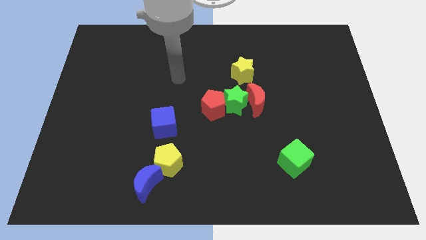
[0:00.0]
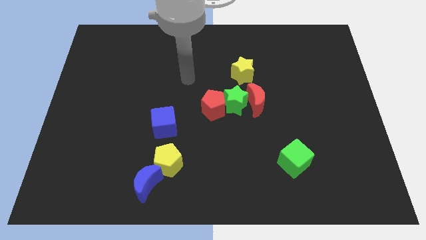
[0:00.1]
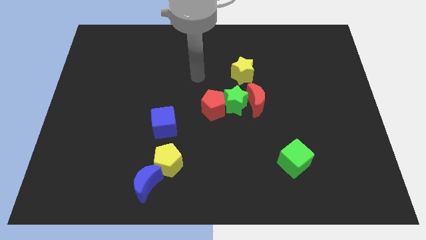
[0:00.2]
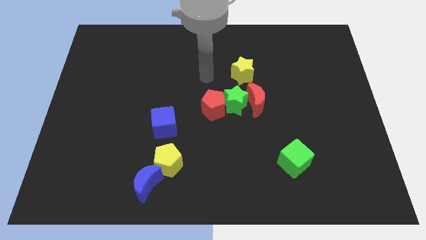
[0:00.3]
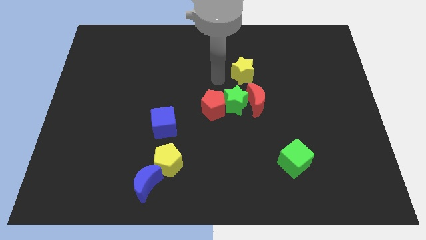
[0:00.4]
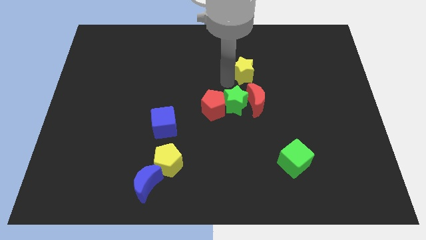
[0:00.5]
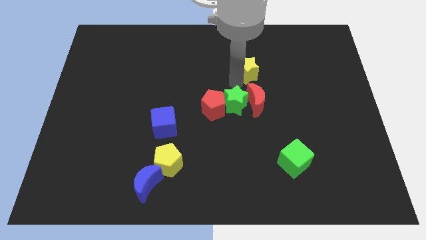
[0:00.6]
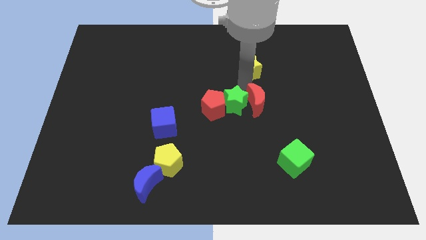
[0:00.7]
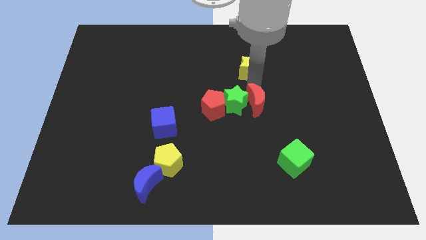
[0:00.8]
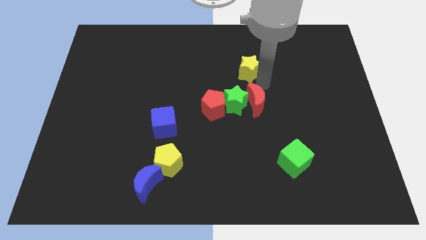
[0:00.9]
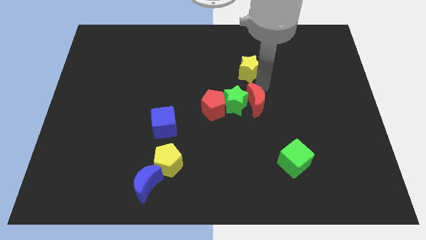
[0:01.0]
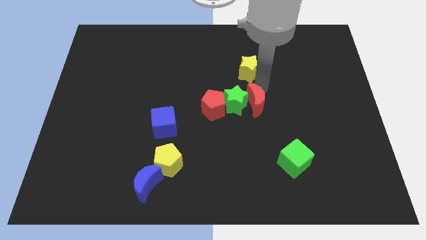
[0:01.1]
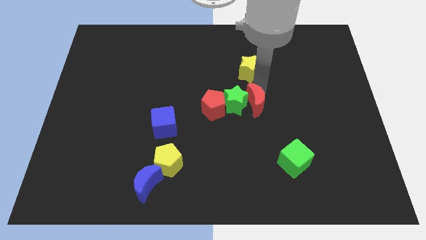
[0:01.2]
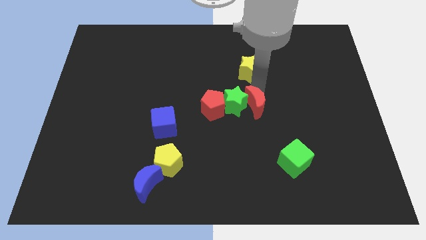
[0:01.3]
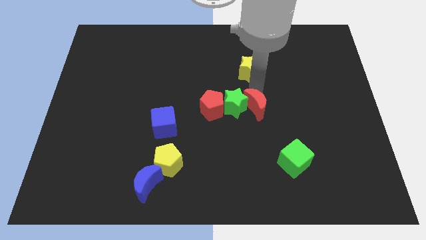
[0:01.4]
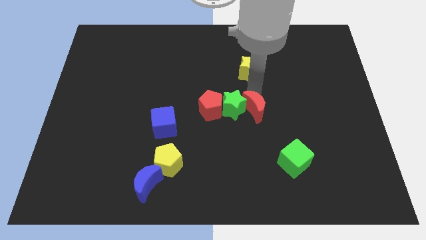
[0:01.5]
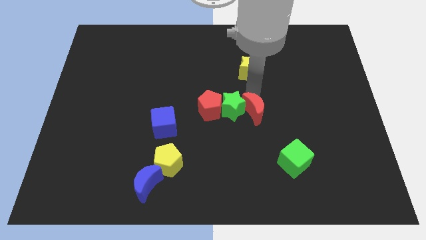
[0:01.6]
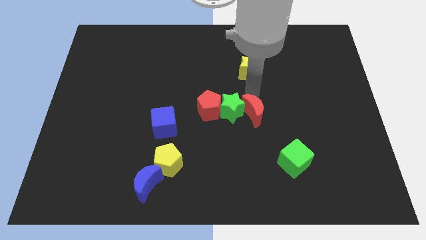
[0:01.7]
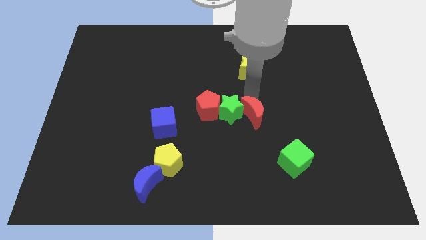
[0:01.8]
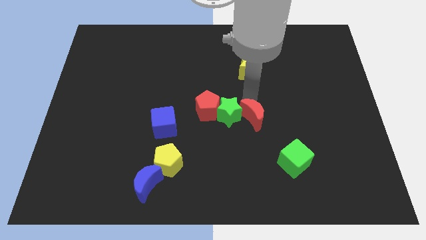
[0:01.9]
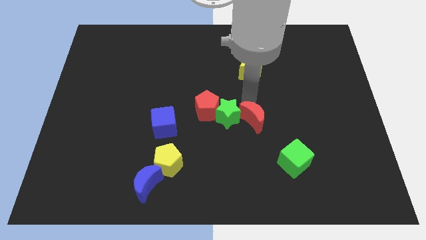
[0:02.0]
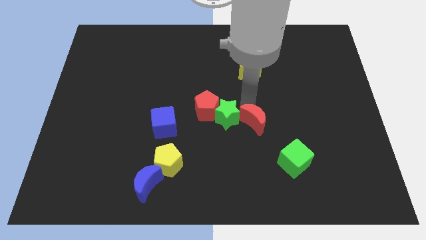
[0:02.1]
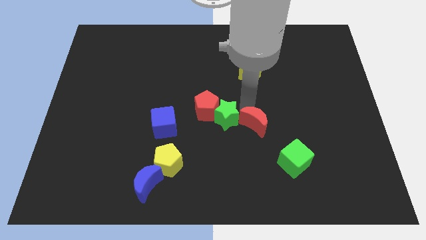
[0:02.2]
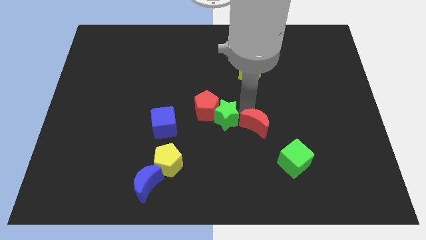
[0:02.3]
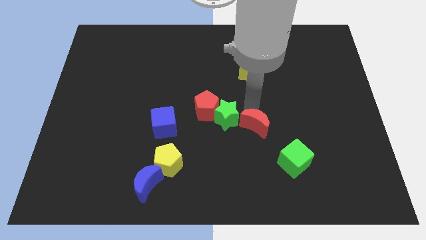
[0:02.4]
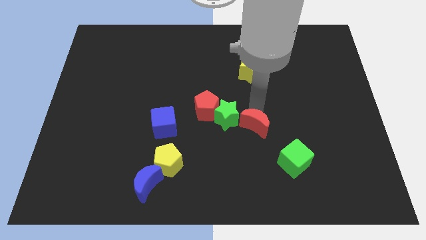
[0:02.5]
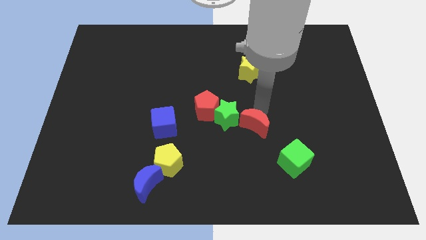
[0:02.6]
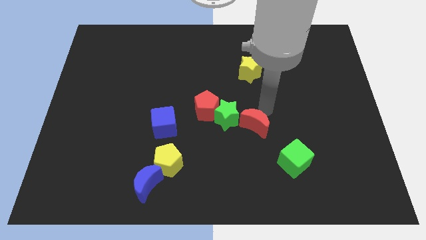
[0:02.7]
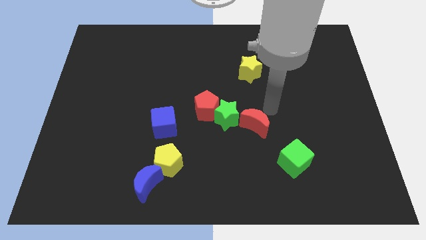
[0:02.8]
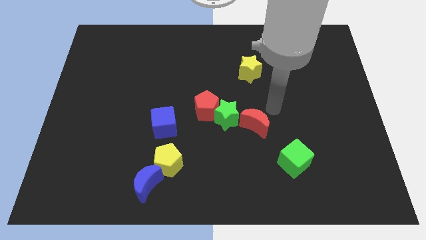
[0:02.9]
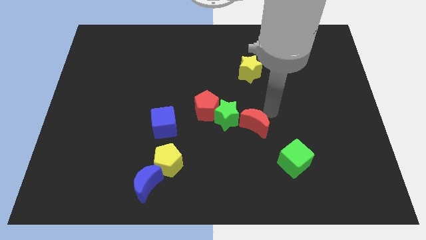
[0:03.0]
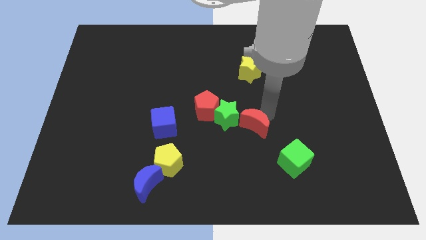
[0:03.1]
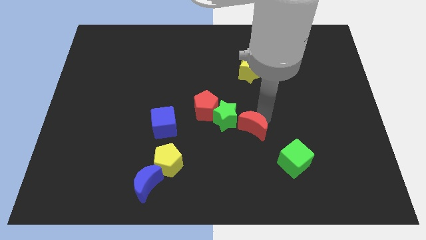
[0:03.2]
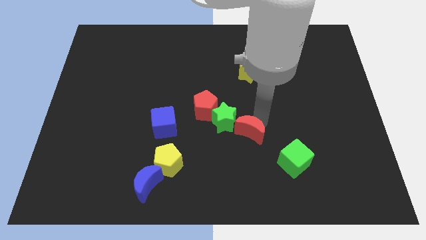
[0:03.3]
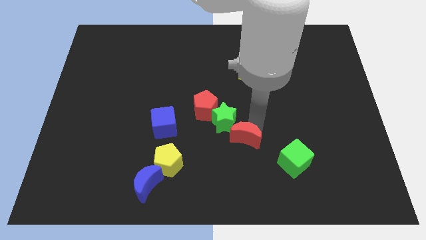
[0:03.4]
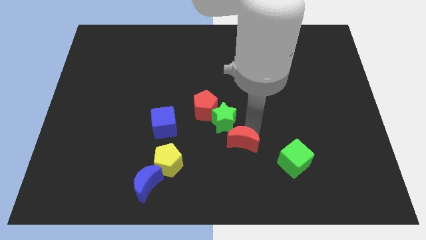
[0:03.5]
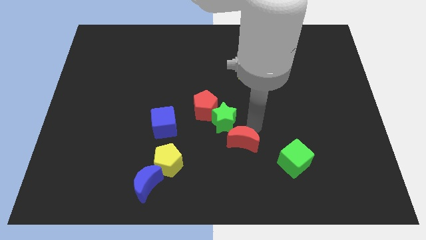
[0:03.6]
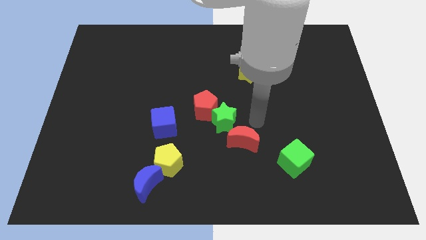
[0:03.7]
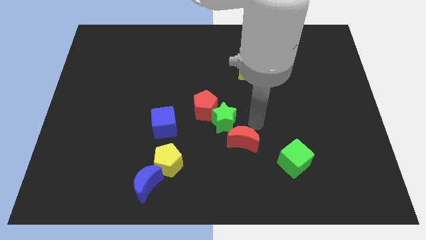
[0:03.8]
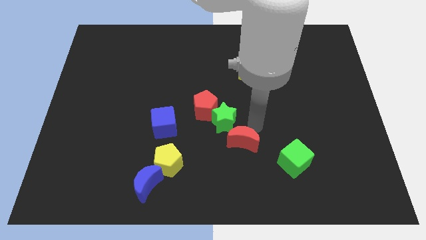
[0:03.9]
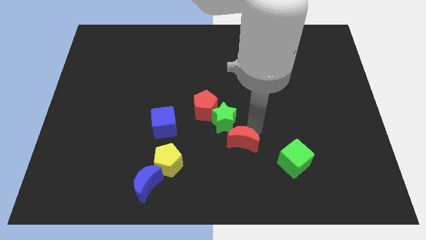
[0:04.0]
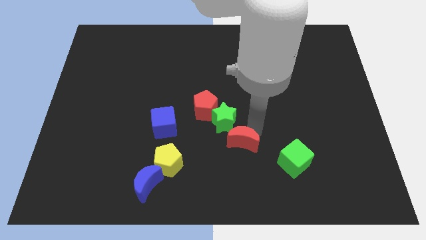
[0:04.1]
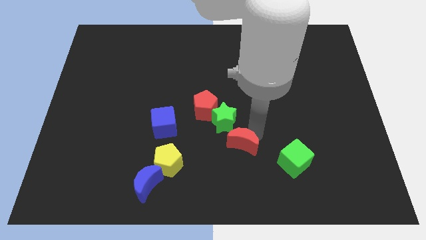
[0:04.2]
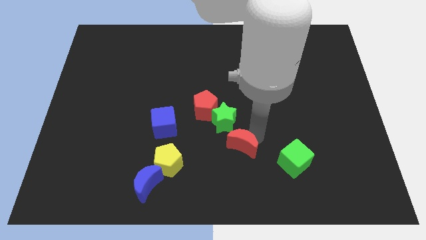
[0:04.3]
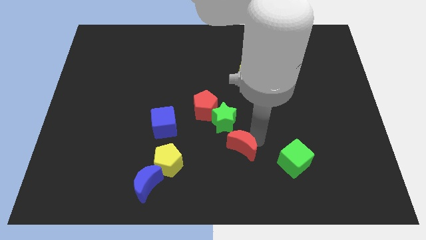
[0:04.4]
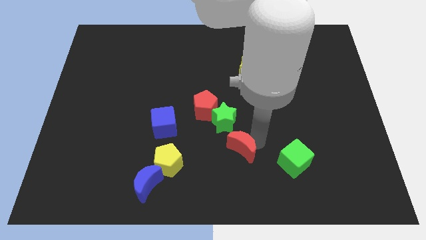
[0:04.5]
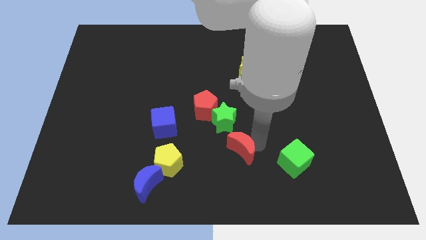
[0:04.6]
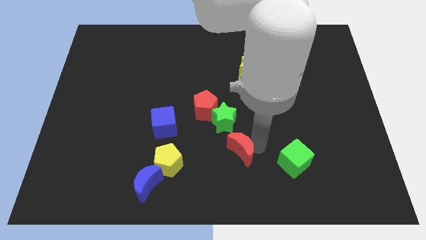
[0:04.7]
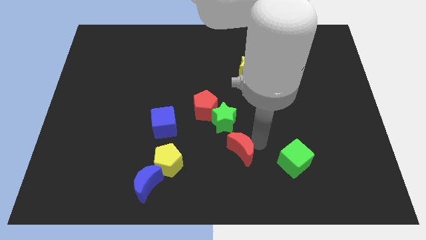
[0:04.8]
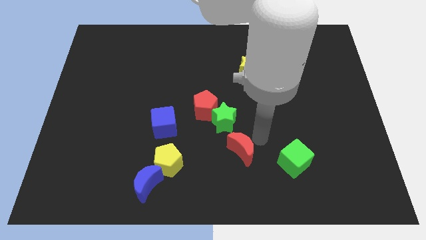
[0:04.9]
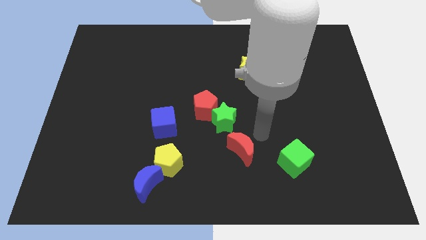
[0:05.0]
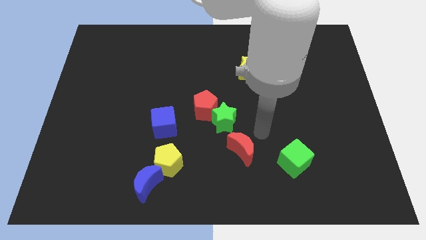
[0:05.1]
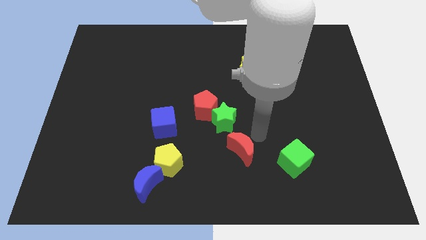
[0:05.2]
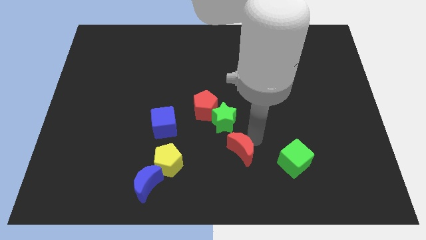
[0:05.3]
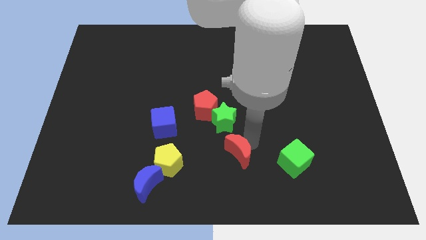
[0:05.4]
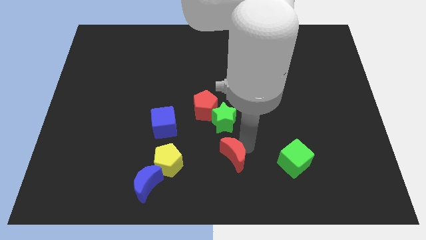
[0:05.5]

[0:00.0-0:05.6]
slide the red moon to the bottom

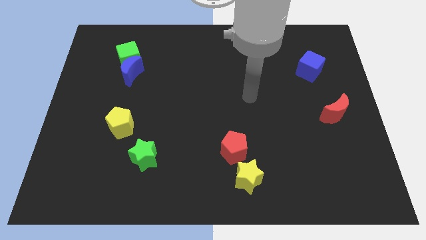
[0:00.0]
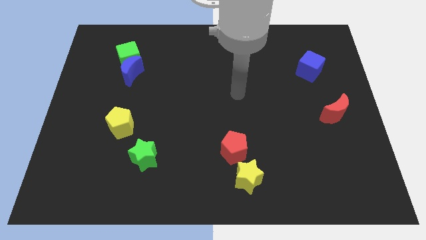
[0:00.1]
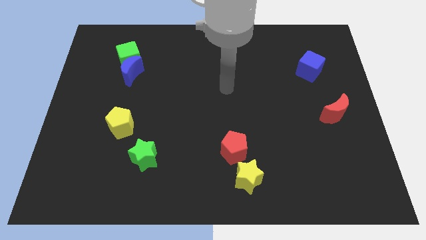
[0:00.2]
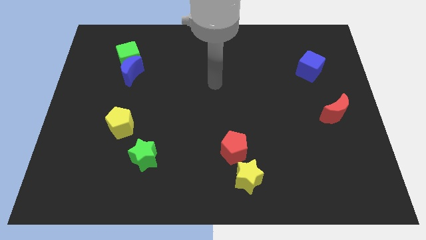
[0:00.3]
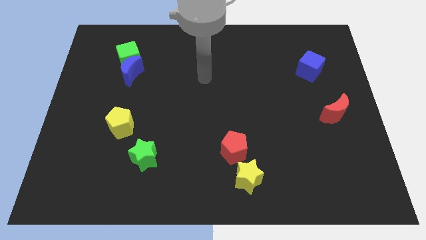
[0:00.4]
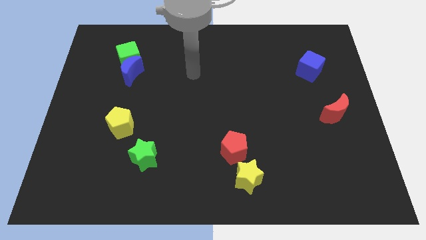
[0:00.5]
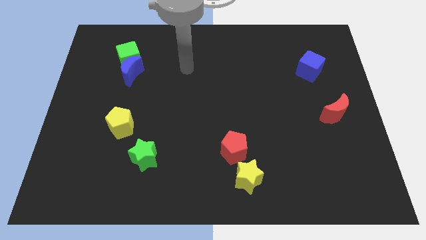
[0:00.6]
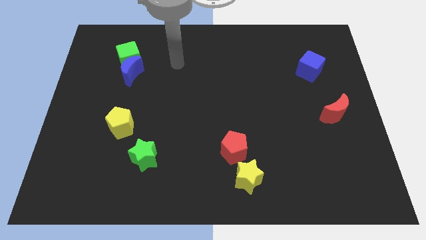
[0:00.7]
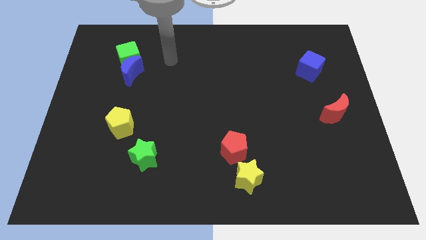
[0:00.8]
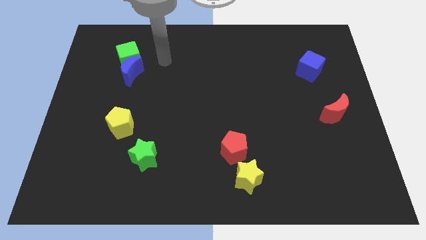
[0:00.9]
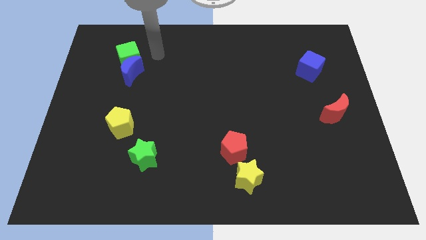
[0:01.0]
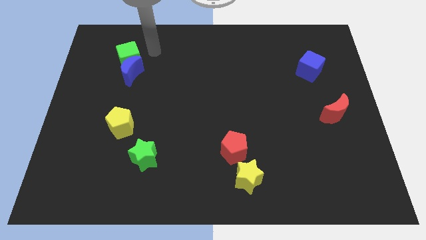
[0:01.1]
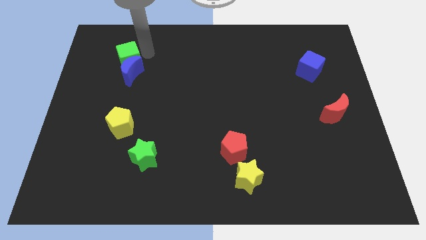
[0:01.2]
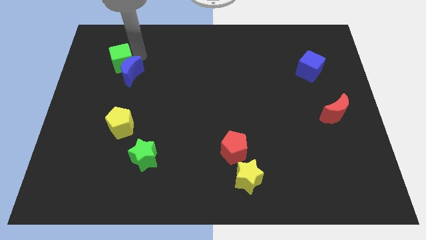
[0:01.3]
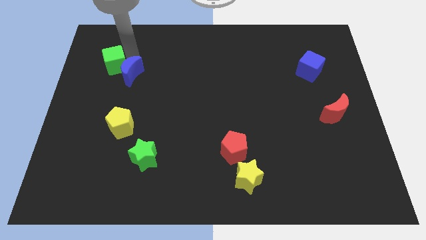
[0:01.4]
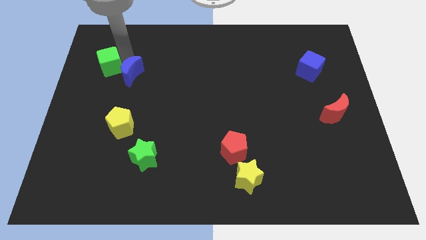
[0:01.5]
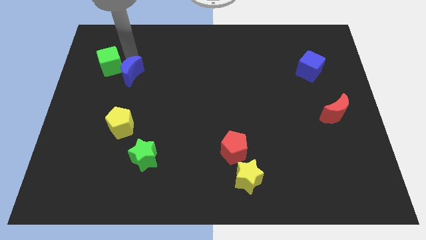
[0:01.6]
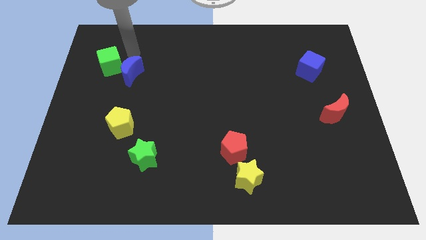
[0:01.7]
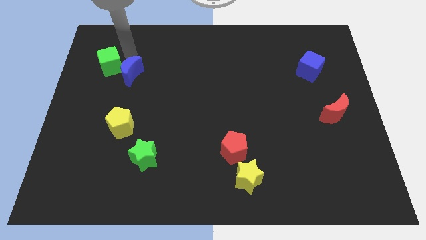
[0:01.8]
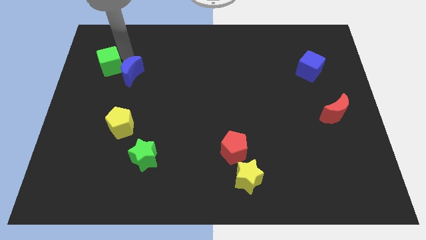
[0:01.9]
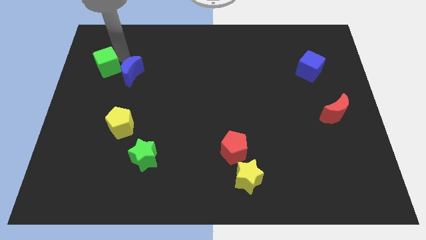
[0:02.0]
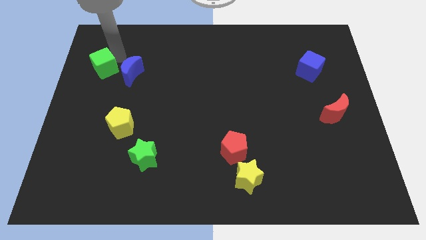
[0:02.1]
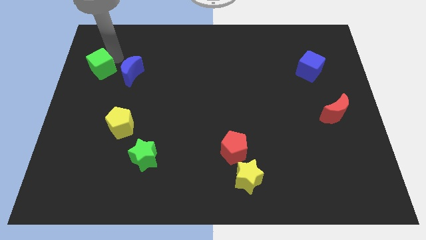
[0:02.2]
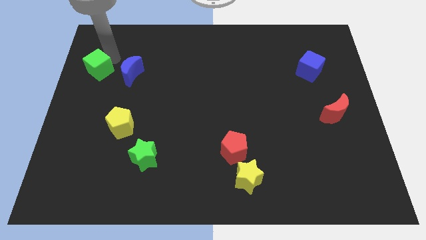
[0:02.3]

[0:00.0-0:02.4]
put the green cube to the left side of the board
